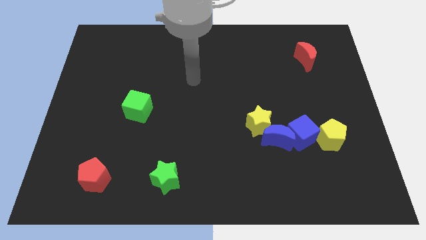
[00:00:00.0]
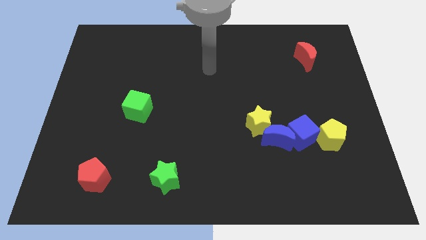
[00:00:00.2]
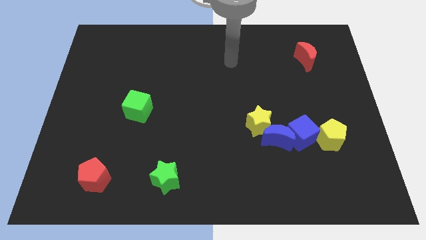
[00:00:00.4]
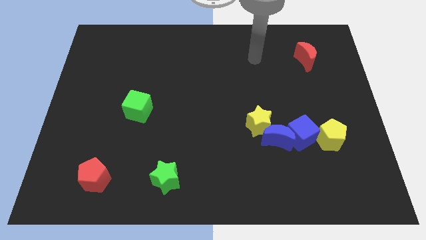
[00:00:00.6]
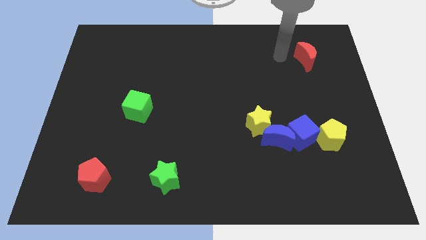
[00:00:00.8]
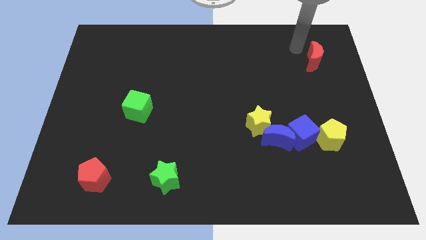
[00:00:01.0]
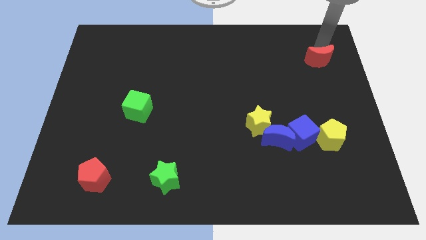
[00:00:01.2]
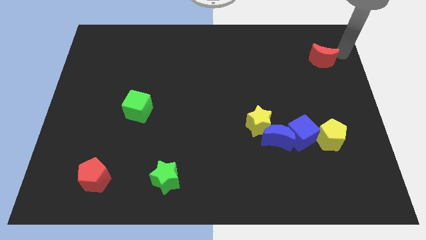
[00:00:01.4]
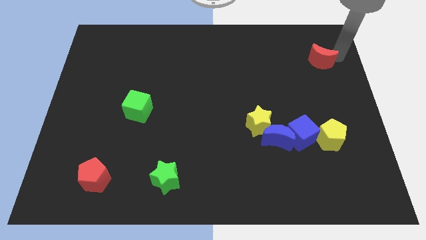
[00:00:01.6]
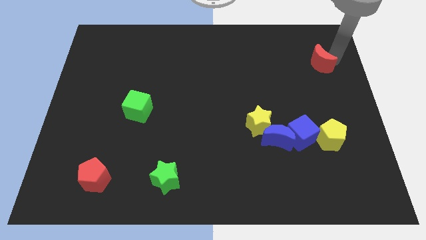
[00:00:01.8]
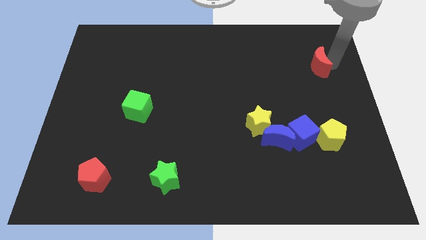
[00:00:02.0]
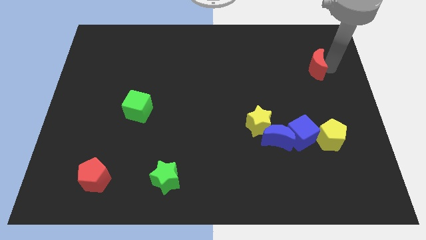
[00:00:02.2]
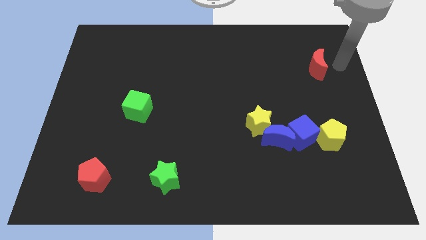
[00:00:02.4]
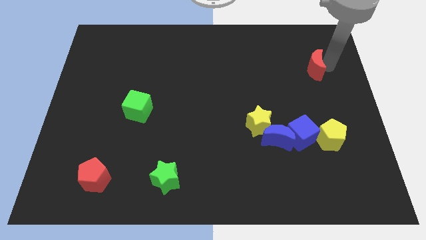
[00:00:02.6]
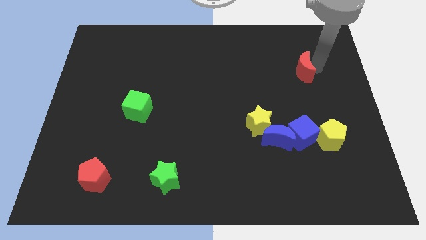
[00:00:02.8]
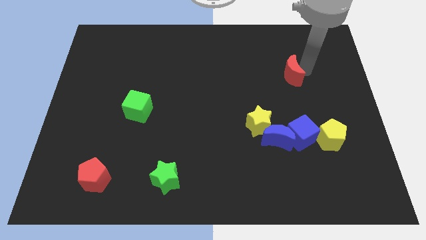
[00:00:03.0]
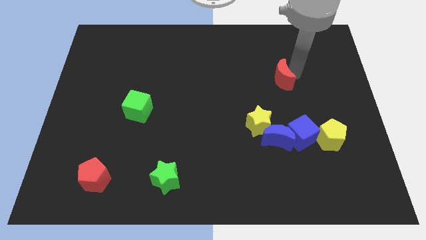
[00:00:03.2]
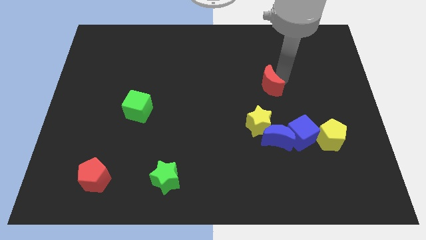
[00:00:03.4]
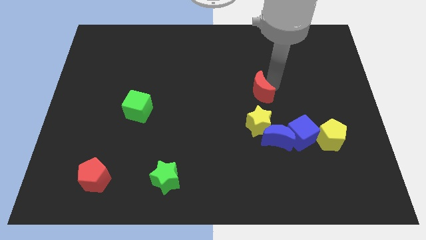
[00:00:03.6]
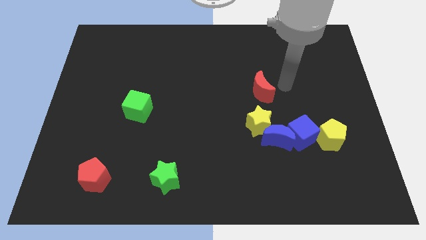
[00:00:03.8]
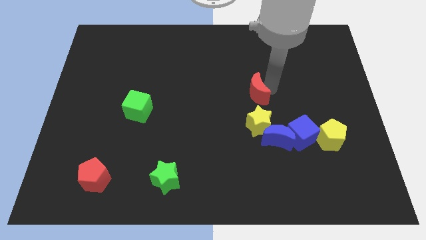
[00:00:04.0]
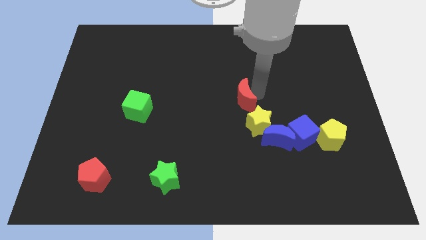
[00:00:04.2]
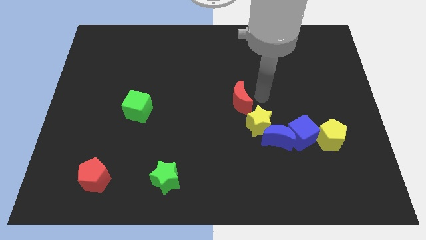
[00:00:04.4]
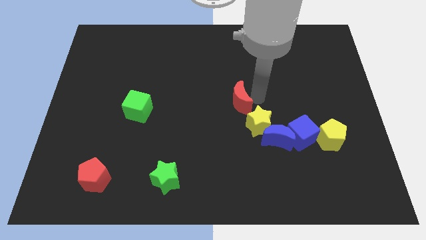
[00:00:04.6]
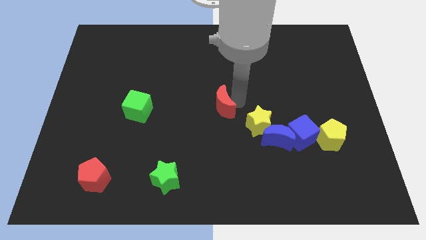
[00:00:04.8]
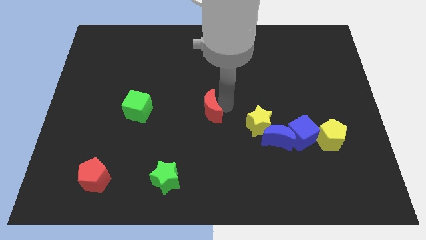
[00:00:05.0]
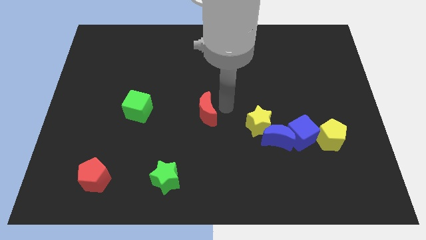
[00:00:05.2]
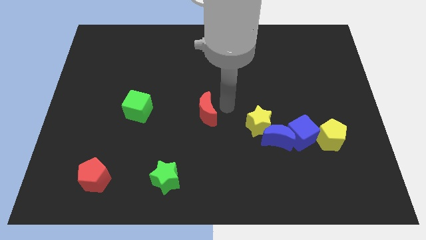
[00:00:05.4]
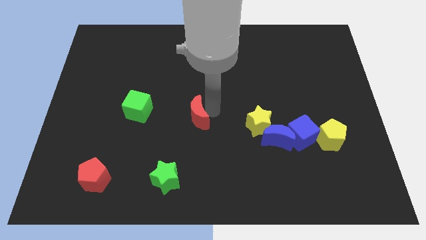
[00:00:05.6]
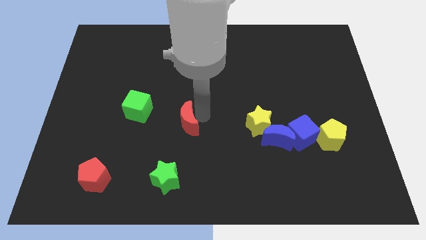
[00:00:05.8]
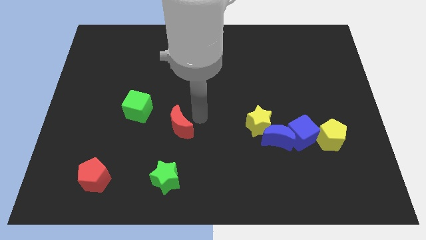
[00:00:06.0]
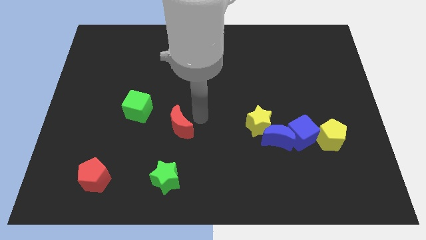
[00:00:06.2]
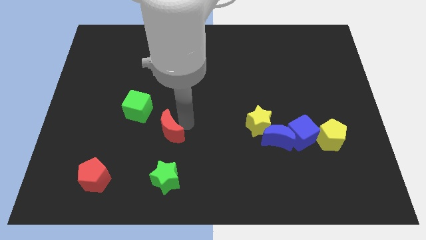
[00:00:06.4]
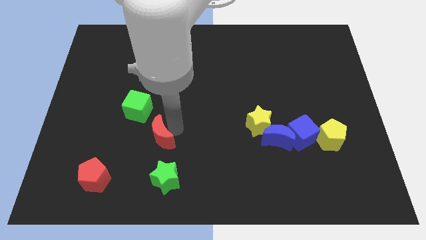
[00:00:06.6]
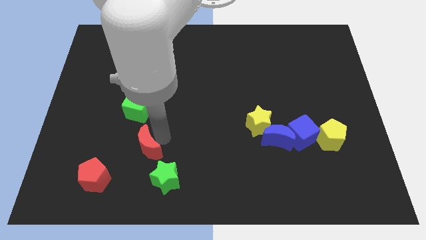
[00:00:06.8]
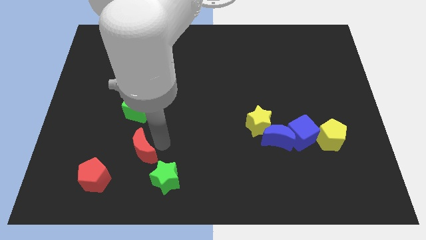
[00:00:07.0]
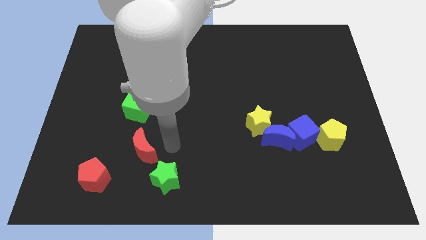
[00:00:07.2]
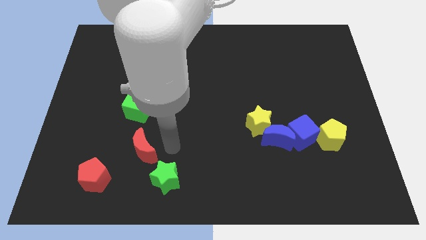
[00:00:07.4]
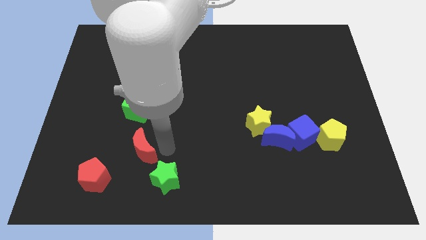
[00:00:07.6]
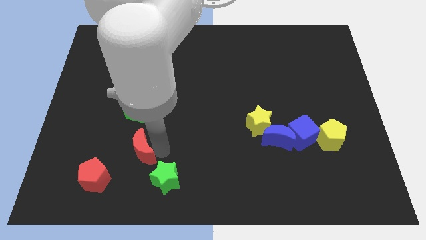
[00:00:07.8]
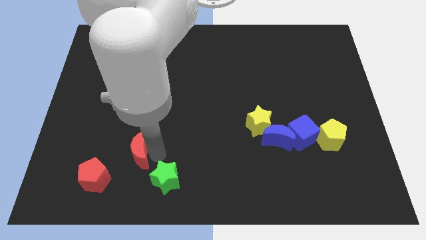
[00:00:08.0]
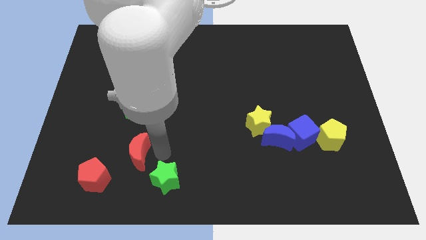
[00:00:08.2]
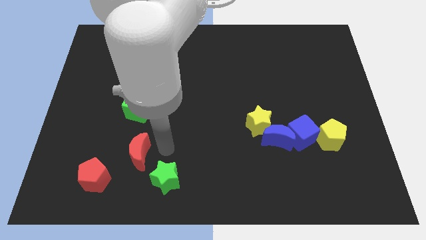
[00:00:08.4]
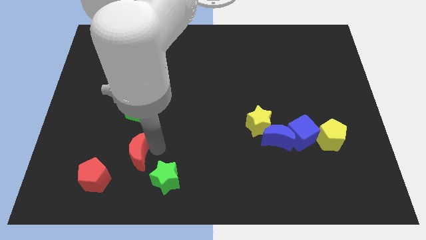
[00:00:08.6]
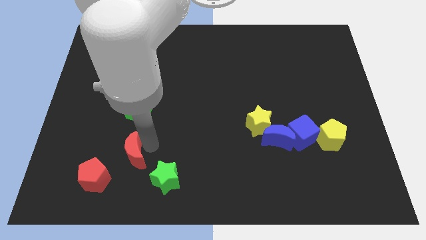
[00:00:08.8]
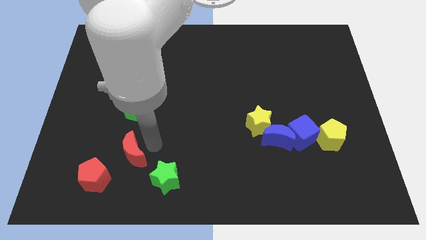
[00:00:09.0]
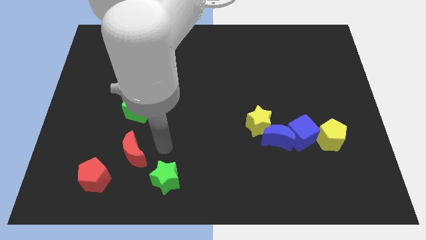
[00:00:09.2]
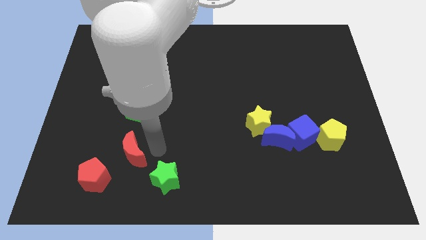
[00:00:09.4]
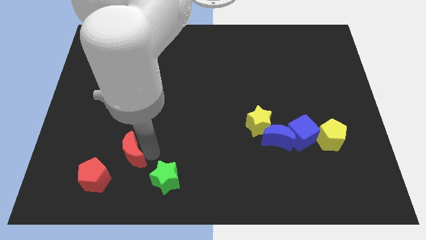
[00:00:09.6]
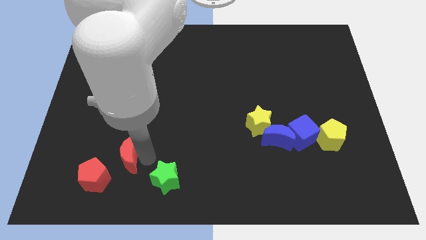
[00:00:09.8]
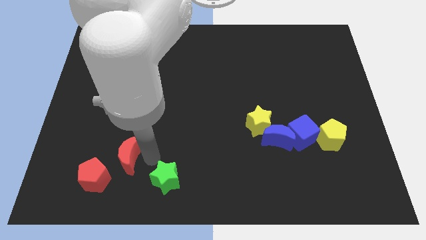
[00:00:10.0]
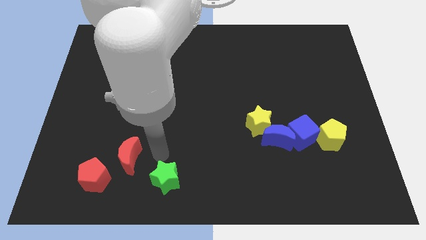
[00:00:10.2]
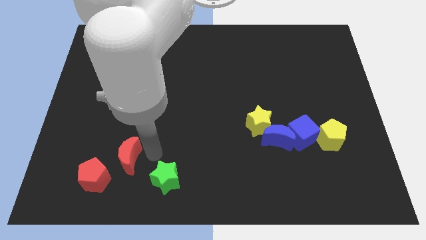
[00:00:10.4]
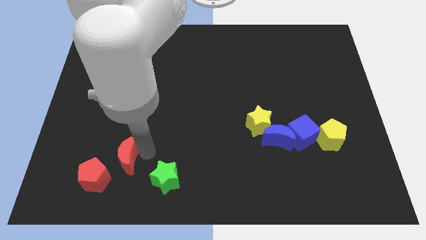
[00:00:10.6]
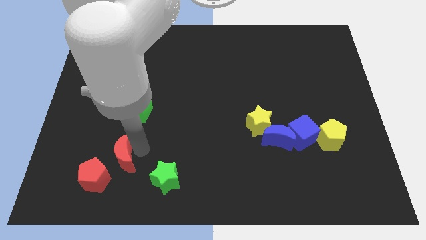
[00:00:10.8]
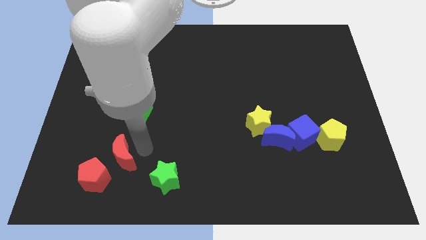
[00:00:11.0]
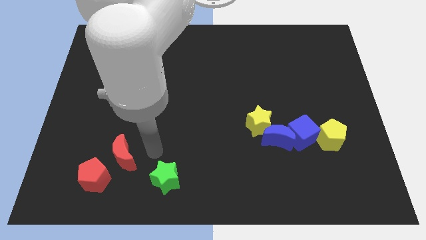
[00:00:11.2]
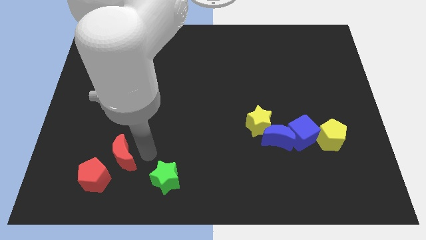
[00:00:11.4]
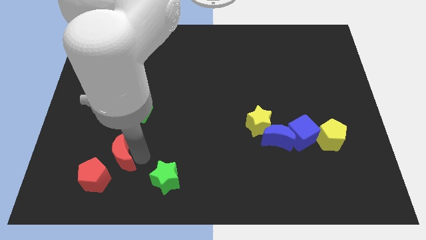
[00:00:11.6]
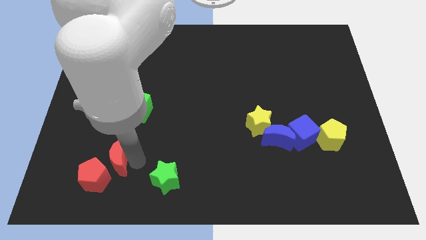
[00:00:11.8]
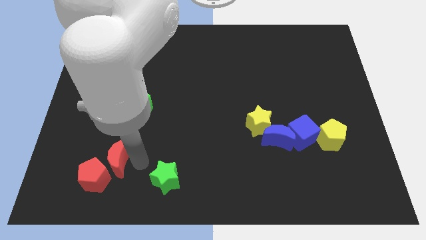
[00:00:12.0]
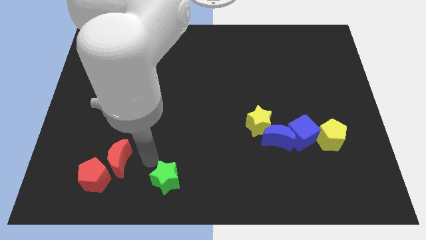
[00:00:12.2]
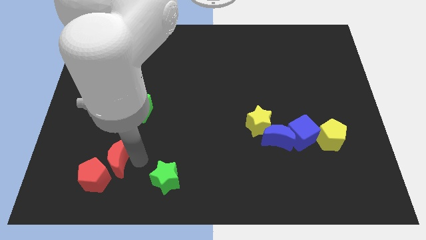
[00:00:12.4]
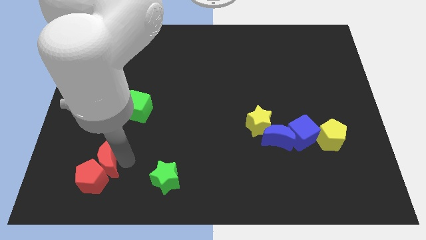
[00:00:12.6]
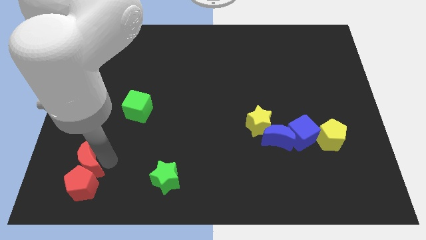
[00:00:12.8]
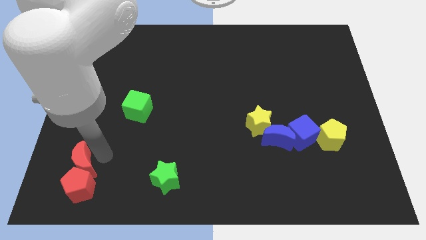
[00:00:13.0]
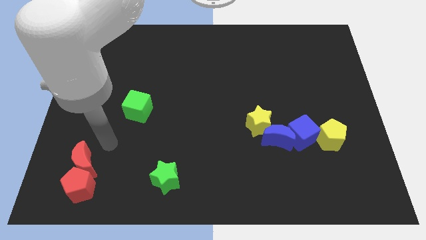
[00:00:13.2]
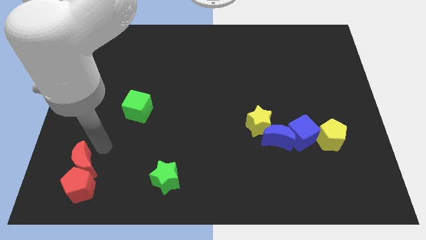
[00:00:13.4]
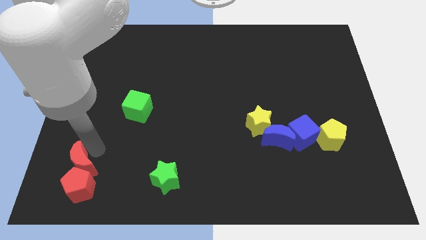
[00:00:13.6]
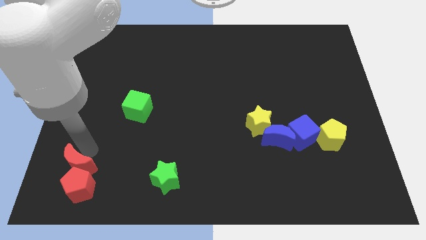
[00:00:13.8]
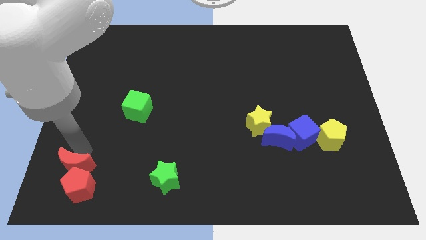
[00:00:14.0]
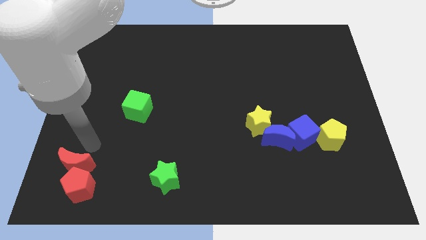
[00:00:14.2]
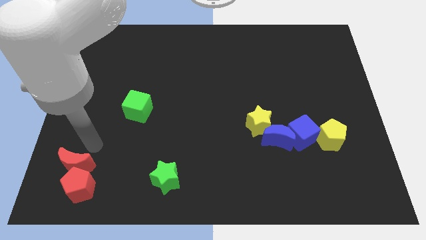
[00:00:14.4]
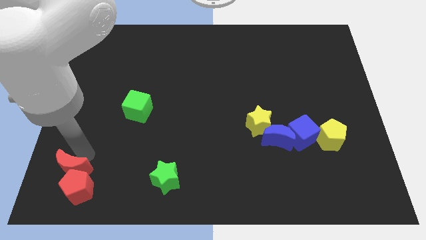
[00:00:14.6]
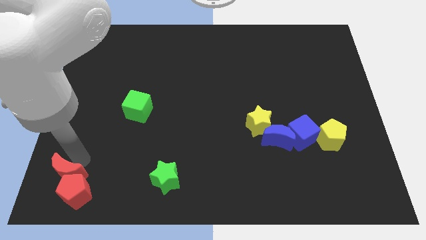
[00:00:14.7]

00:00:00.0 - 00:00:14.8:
slide the red moon to the bottom left corner
